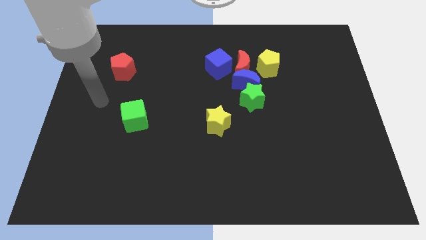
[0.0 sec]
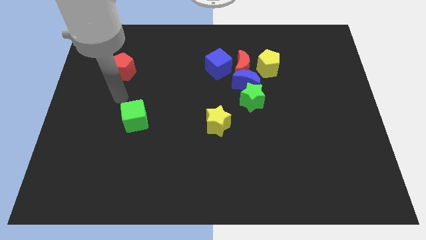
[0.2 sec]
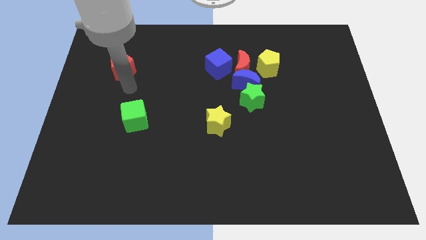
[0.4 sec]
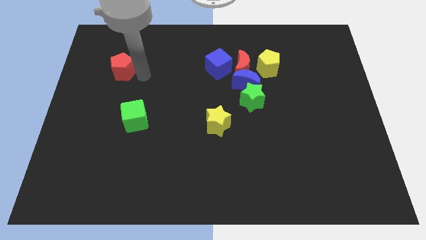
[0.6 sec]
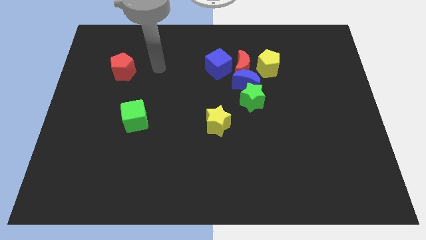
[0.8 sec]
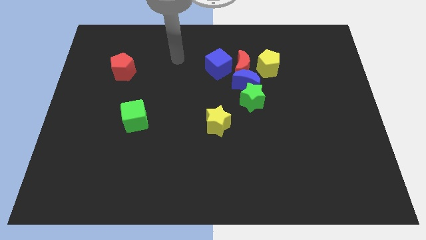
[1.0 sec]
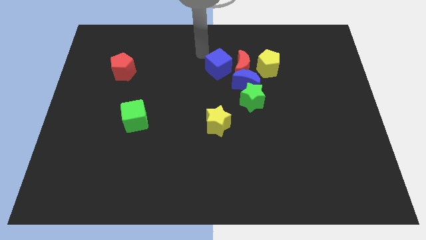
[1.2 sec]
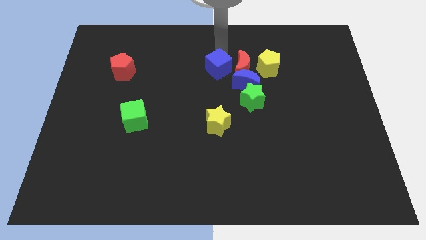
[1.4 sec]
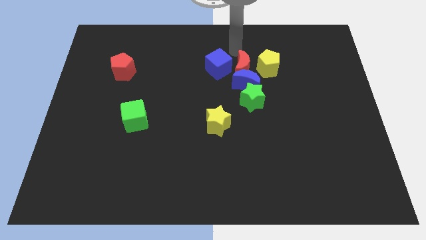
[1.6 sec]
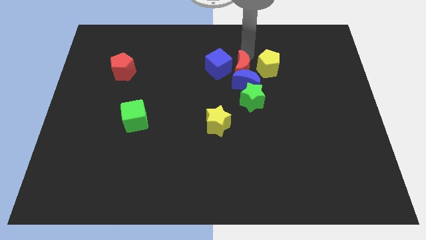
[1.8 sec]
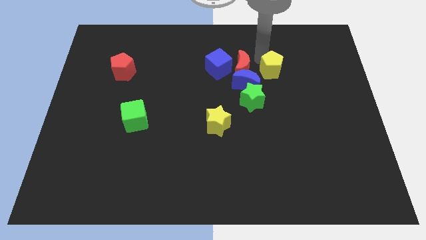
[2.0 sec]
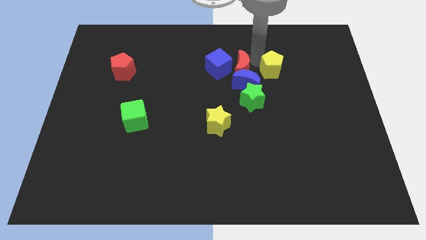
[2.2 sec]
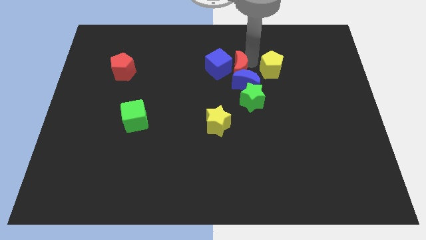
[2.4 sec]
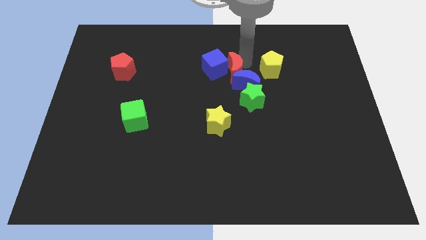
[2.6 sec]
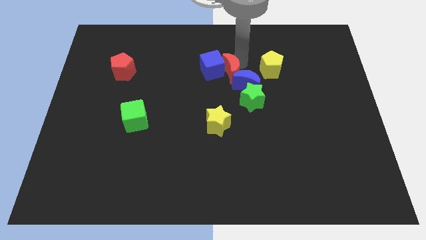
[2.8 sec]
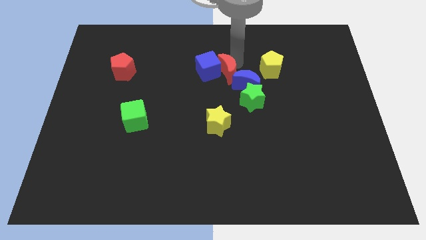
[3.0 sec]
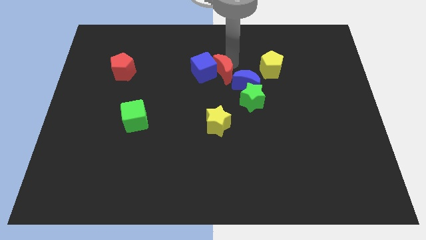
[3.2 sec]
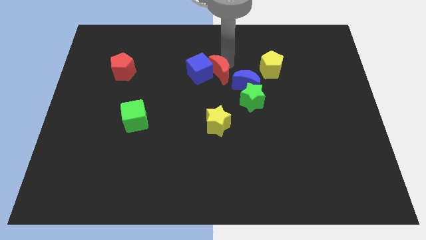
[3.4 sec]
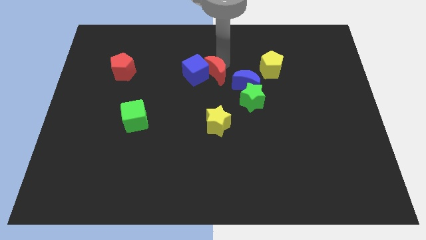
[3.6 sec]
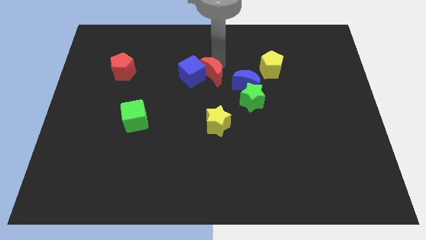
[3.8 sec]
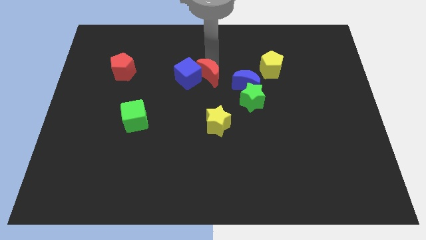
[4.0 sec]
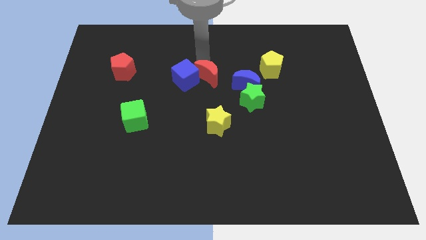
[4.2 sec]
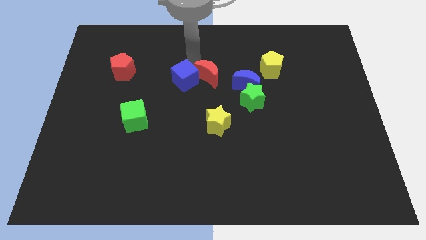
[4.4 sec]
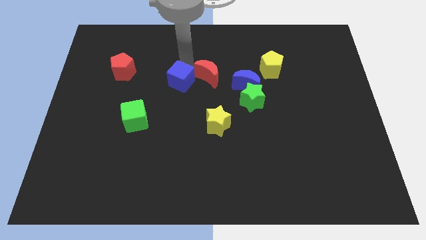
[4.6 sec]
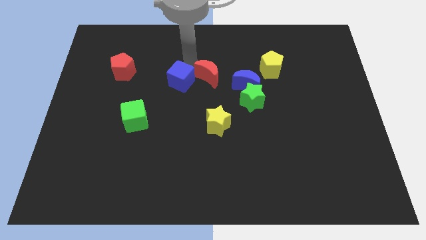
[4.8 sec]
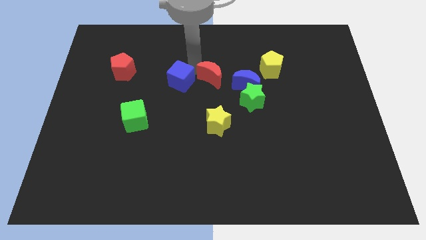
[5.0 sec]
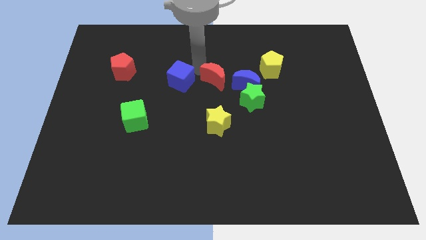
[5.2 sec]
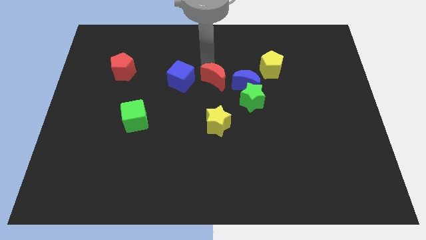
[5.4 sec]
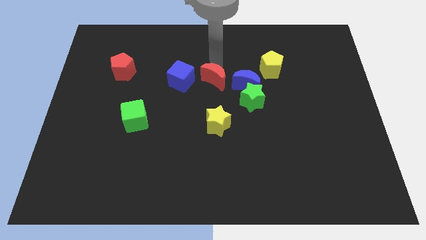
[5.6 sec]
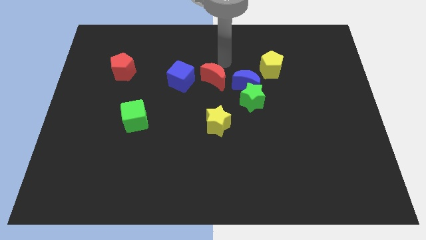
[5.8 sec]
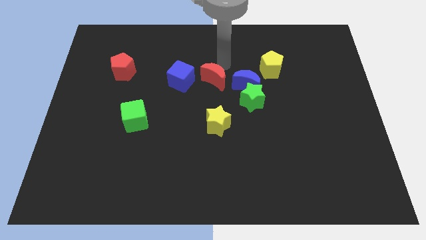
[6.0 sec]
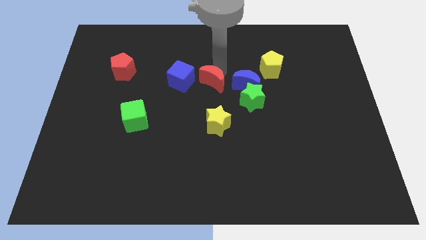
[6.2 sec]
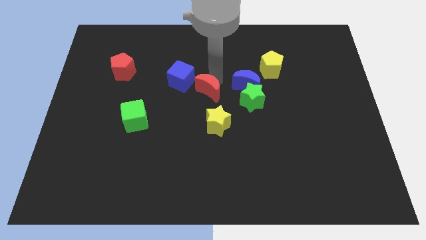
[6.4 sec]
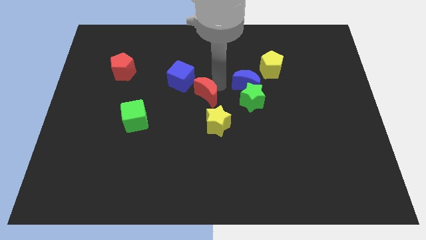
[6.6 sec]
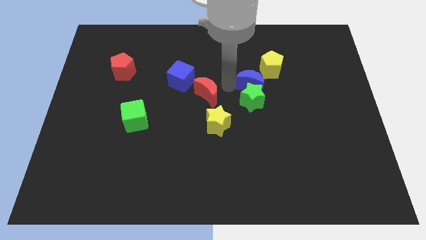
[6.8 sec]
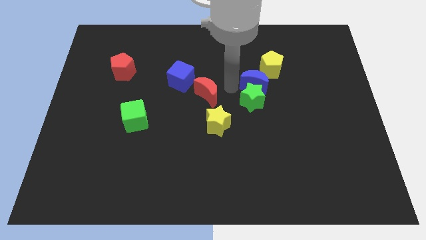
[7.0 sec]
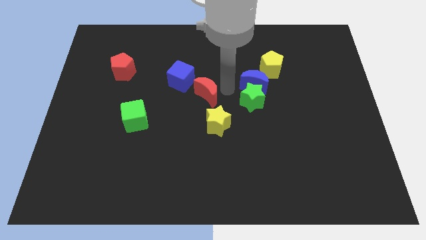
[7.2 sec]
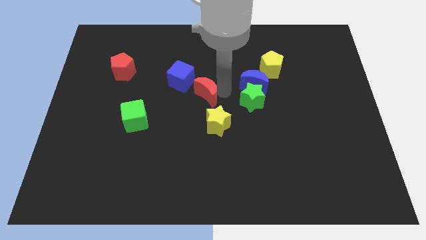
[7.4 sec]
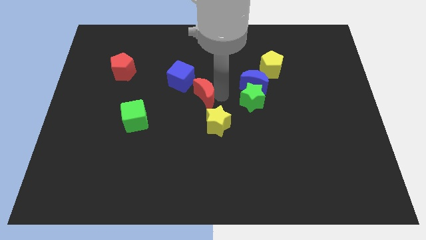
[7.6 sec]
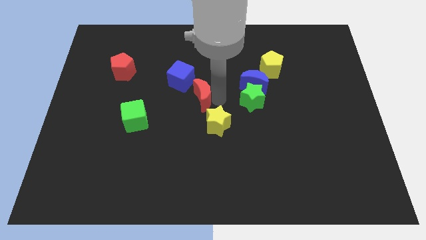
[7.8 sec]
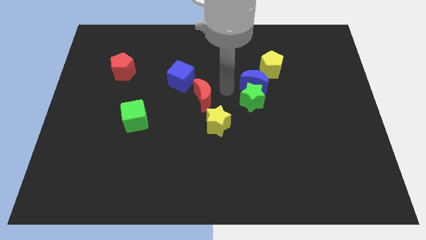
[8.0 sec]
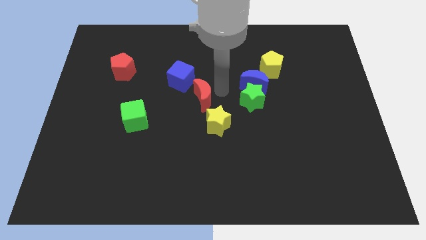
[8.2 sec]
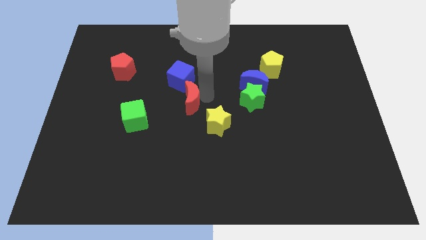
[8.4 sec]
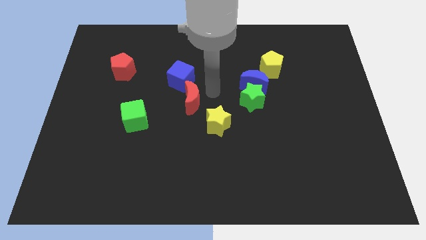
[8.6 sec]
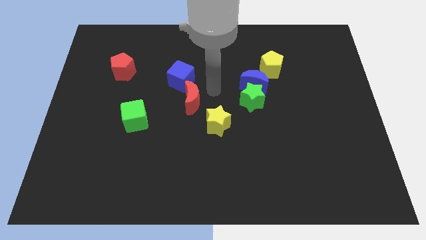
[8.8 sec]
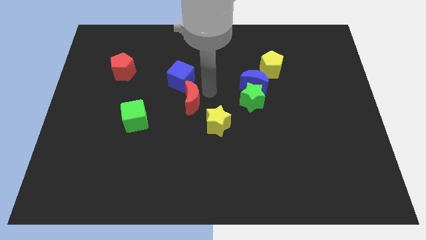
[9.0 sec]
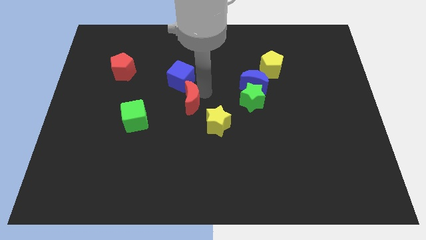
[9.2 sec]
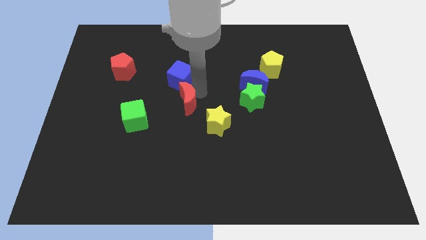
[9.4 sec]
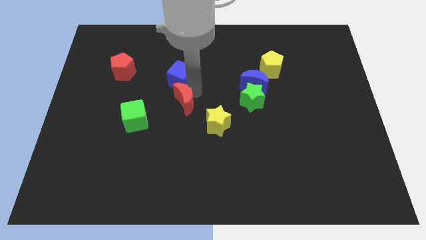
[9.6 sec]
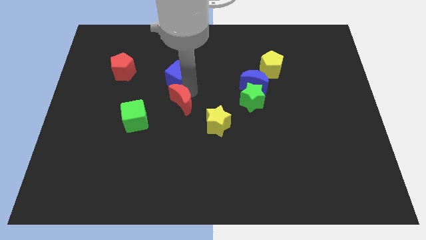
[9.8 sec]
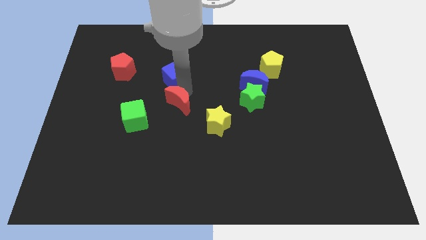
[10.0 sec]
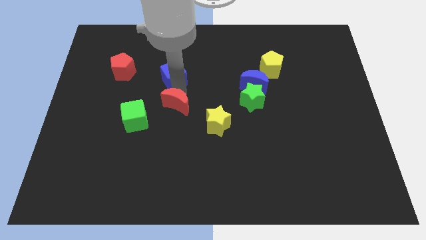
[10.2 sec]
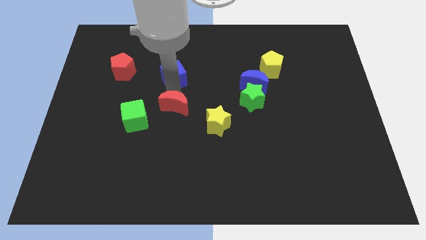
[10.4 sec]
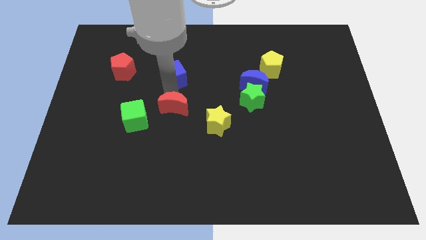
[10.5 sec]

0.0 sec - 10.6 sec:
slide the red moon to the left of the yellow star

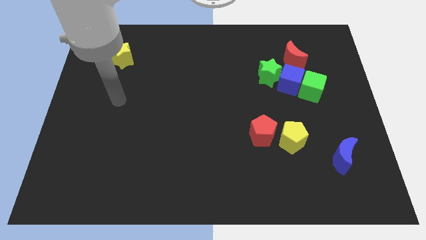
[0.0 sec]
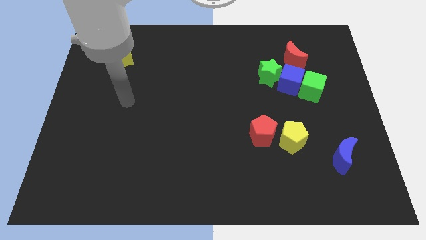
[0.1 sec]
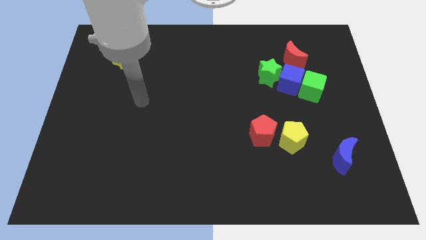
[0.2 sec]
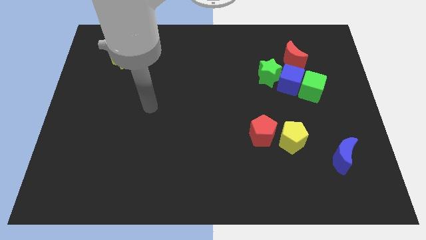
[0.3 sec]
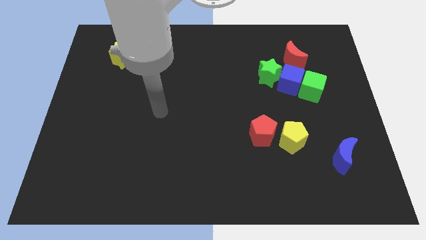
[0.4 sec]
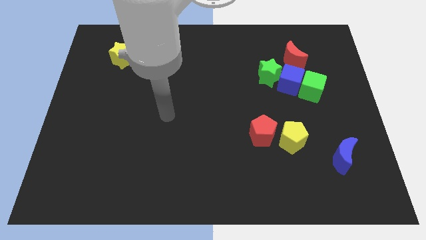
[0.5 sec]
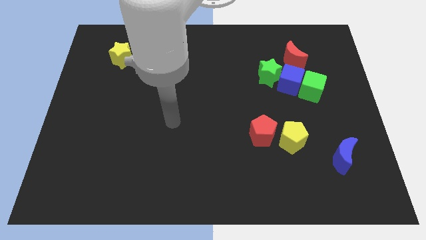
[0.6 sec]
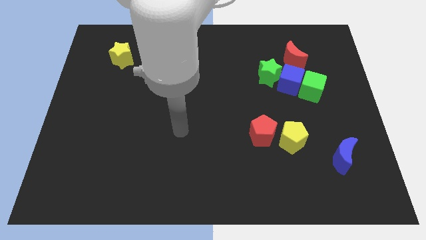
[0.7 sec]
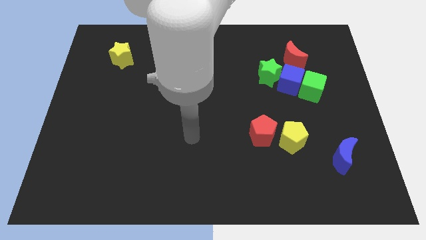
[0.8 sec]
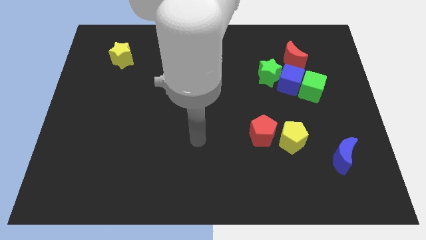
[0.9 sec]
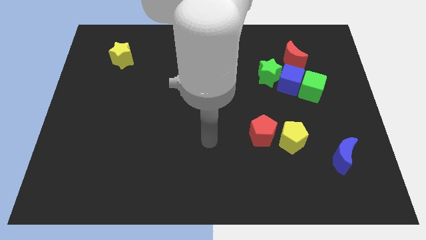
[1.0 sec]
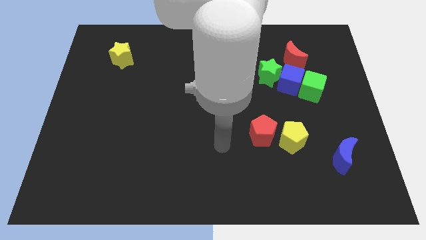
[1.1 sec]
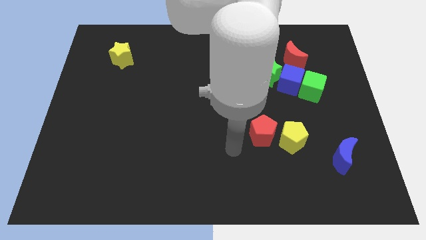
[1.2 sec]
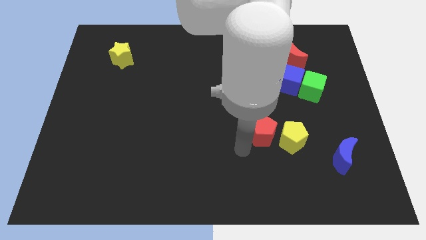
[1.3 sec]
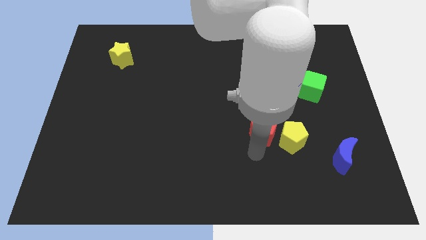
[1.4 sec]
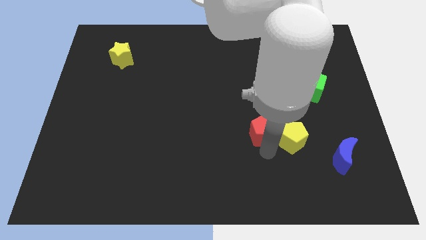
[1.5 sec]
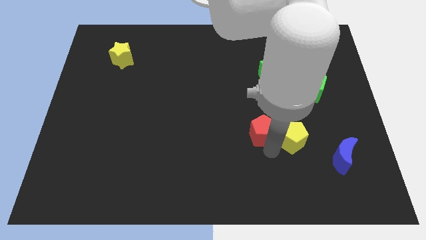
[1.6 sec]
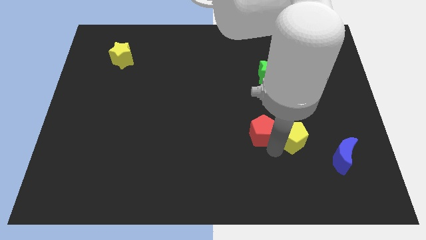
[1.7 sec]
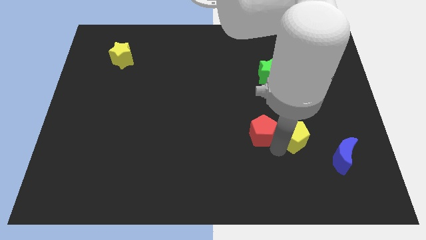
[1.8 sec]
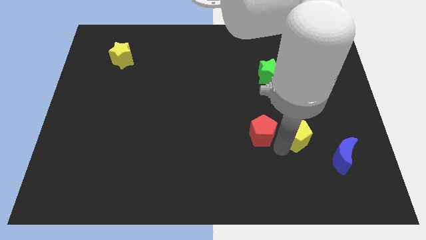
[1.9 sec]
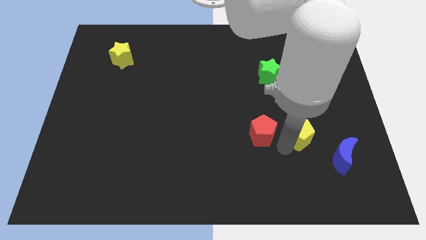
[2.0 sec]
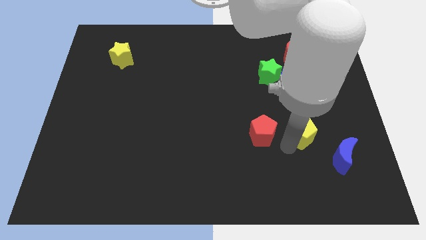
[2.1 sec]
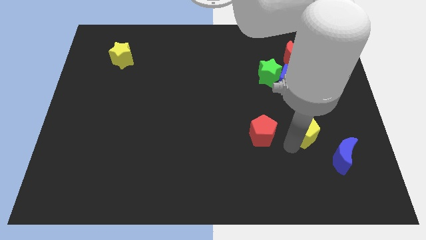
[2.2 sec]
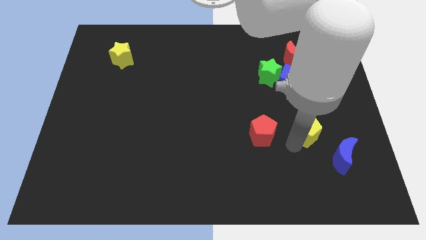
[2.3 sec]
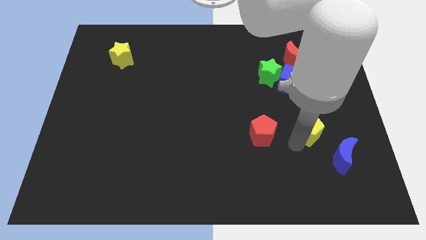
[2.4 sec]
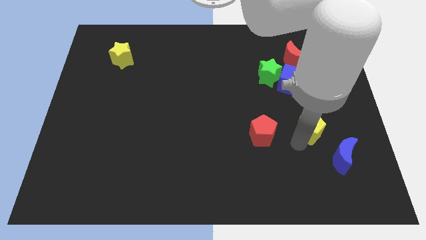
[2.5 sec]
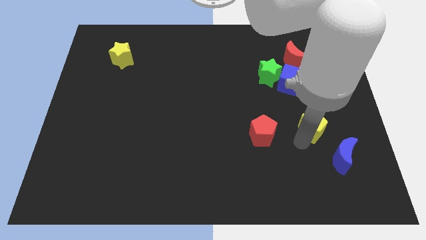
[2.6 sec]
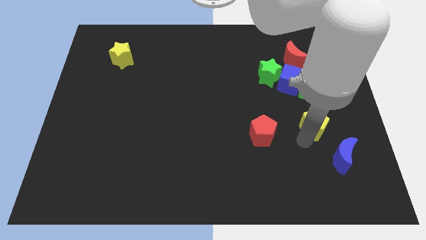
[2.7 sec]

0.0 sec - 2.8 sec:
put the yellow pentagon above the blue moon
